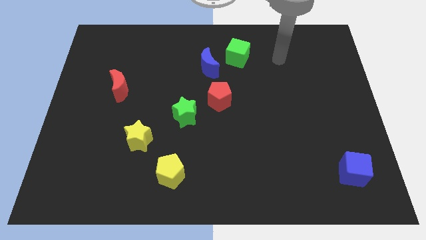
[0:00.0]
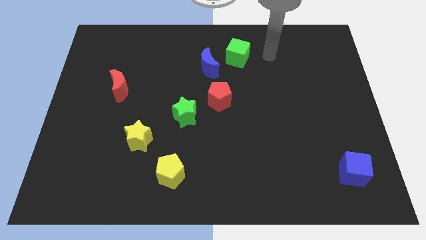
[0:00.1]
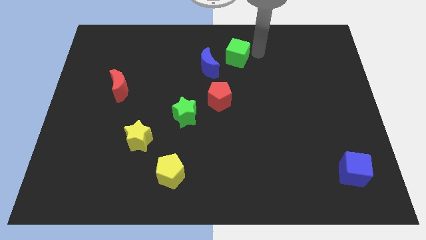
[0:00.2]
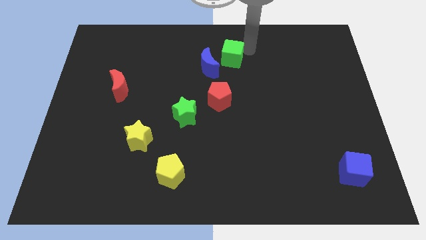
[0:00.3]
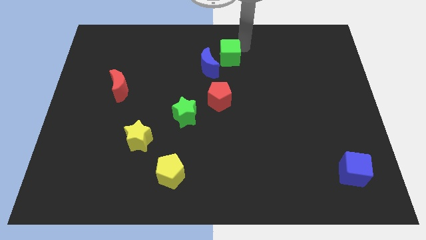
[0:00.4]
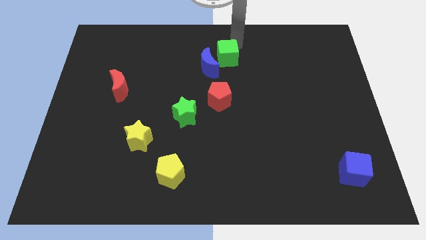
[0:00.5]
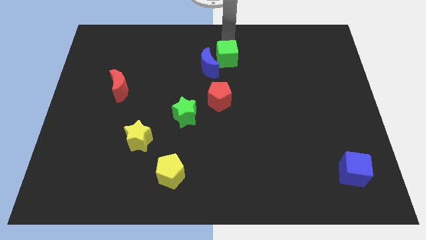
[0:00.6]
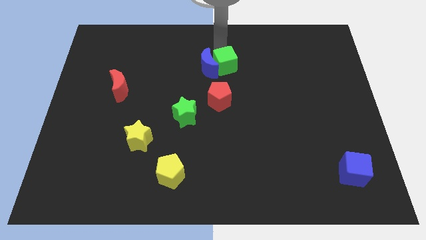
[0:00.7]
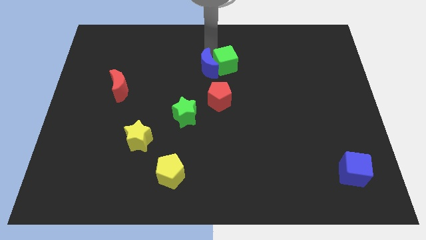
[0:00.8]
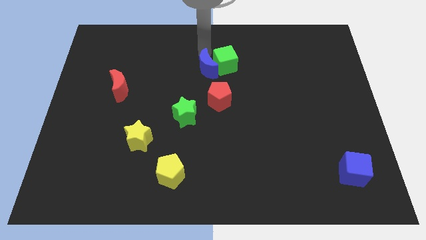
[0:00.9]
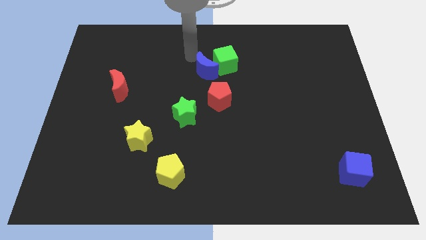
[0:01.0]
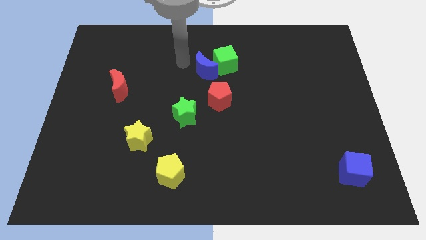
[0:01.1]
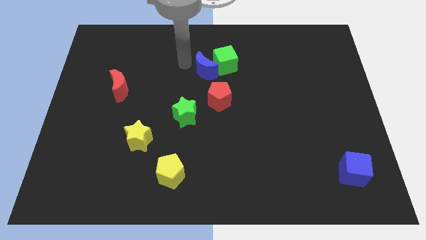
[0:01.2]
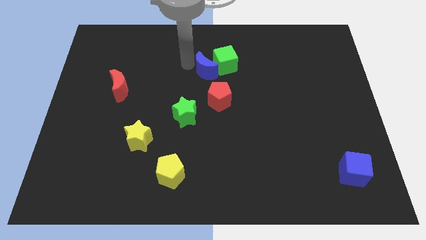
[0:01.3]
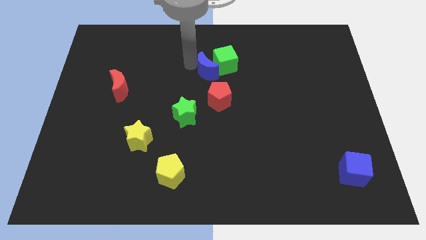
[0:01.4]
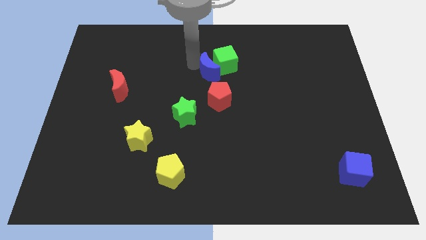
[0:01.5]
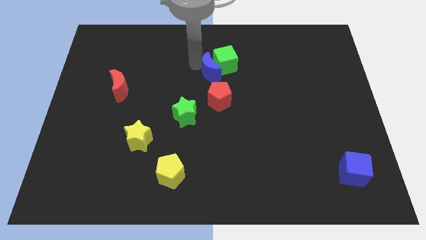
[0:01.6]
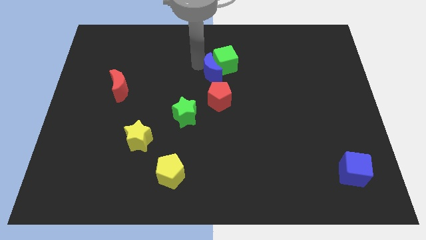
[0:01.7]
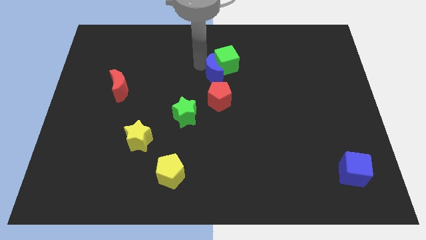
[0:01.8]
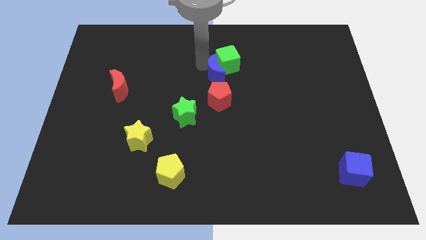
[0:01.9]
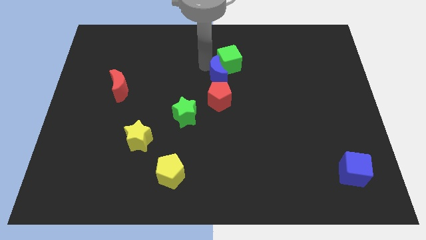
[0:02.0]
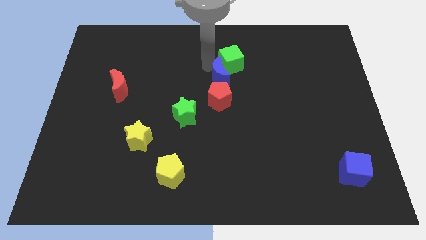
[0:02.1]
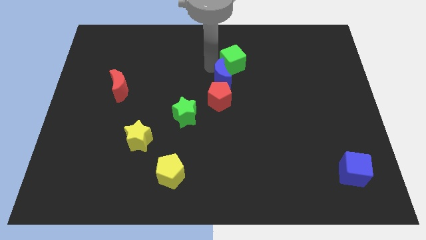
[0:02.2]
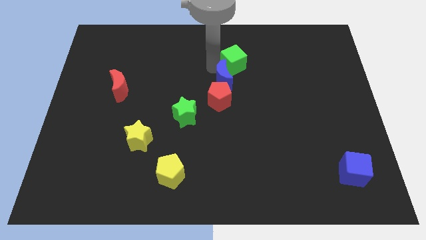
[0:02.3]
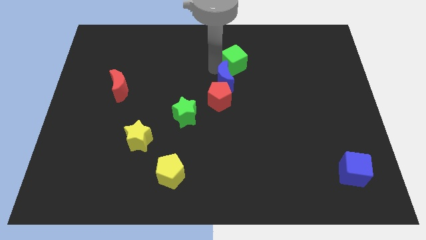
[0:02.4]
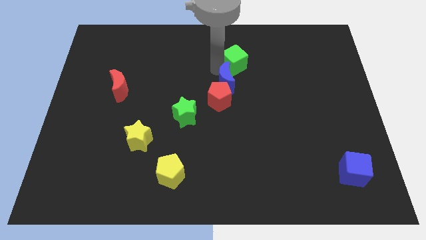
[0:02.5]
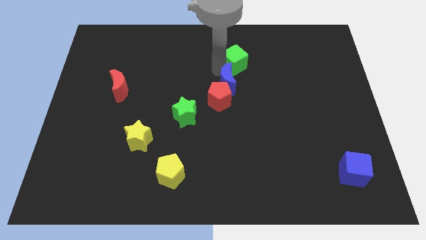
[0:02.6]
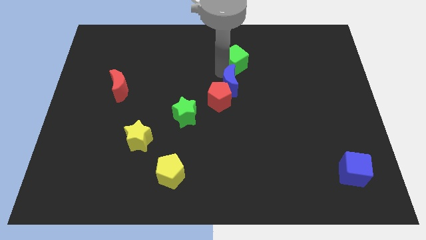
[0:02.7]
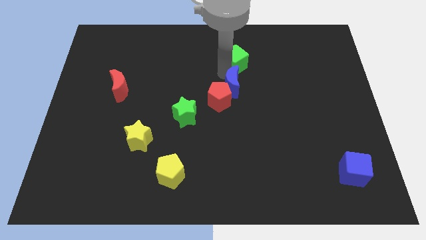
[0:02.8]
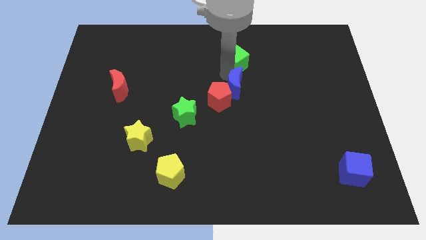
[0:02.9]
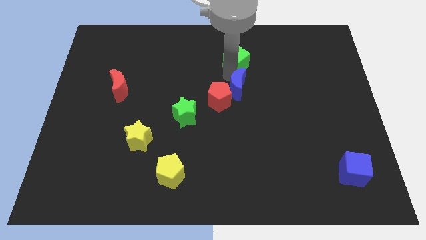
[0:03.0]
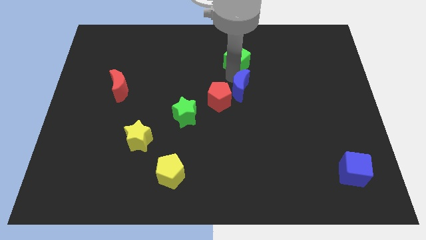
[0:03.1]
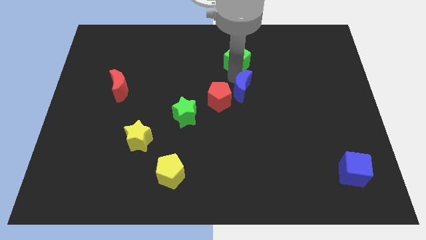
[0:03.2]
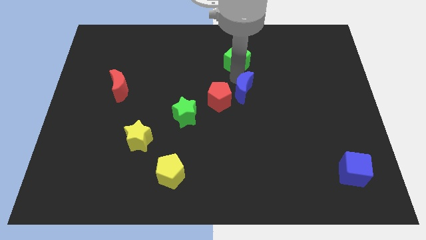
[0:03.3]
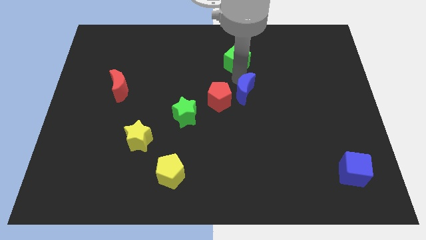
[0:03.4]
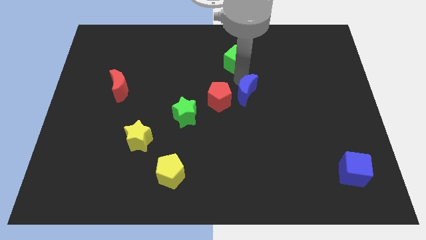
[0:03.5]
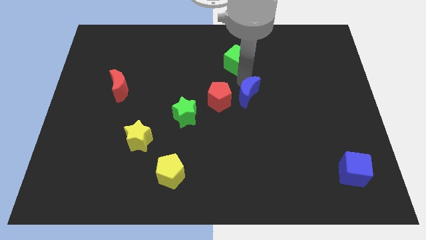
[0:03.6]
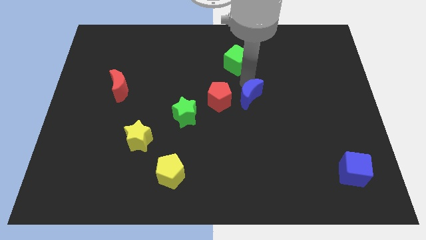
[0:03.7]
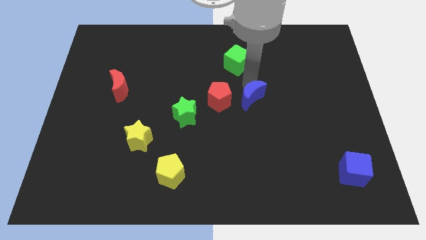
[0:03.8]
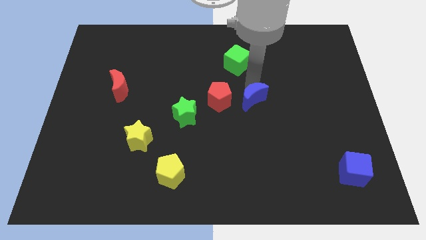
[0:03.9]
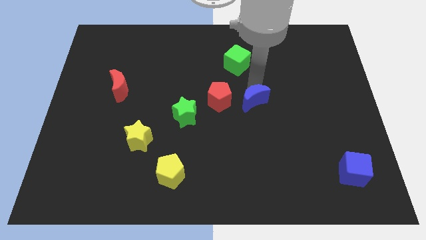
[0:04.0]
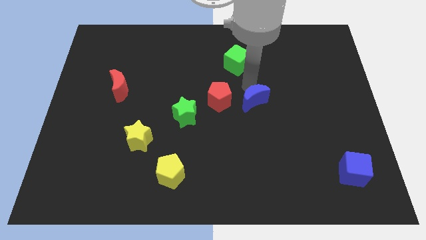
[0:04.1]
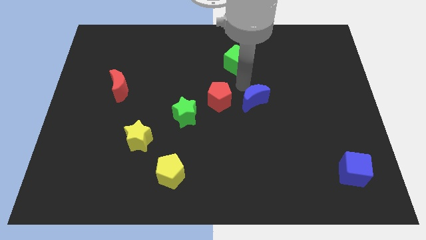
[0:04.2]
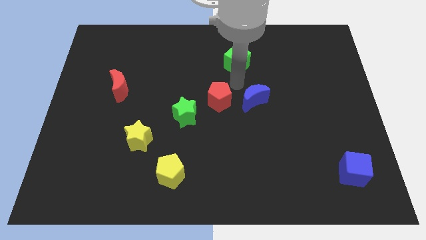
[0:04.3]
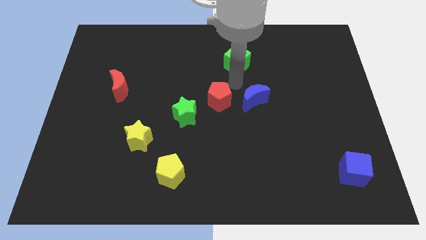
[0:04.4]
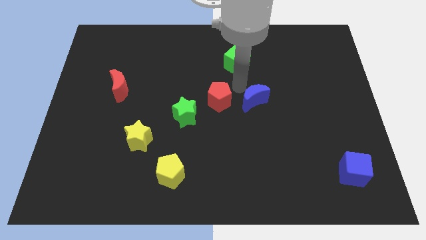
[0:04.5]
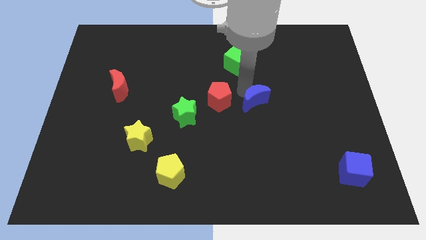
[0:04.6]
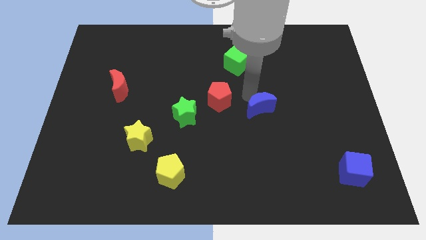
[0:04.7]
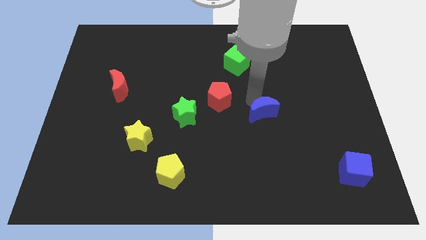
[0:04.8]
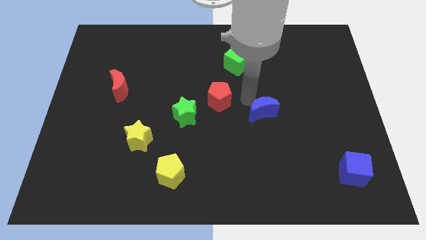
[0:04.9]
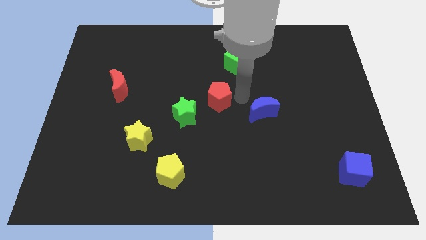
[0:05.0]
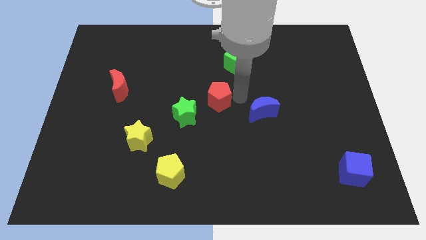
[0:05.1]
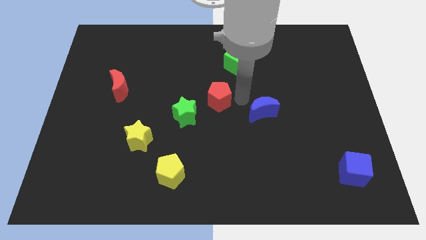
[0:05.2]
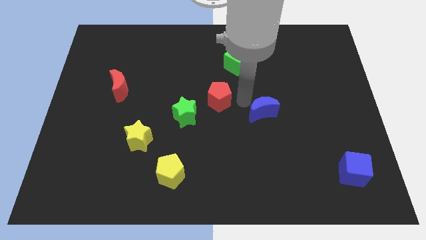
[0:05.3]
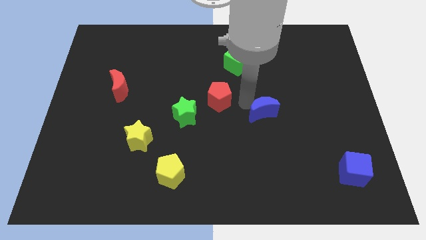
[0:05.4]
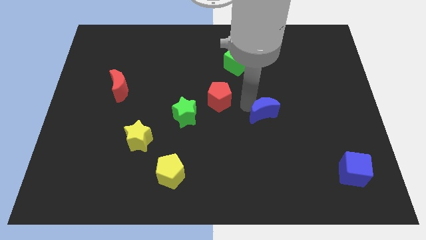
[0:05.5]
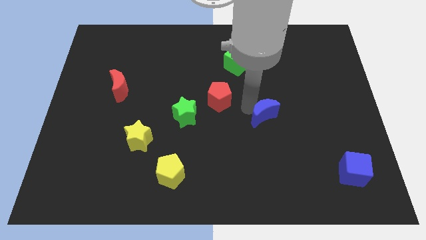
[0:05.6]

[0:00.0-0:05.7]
slide the blue moon downwards and then to the right

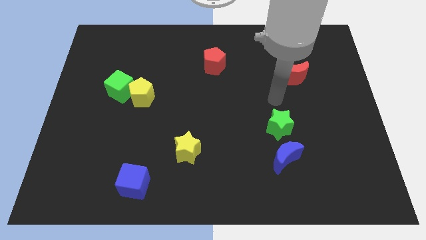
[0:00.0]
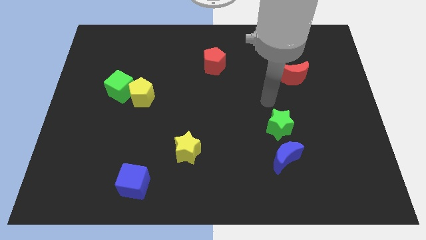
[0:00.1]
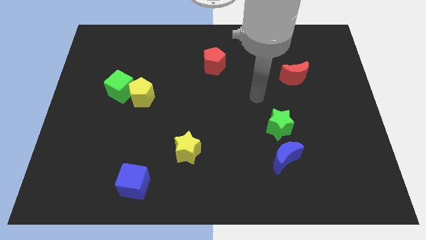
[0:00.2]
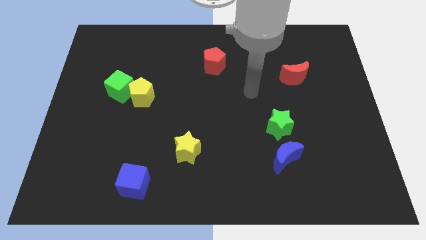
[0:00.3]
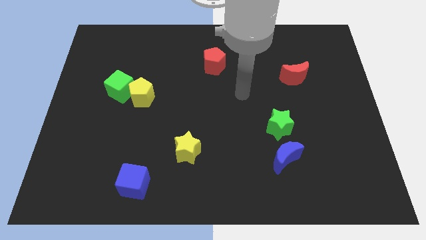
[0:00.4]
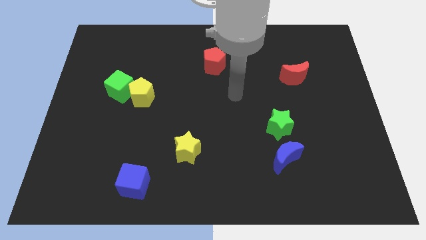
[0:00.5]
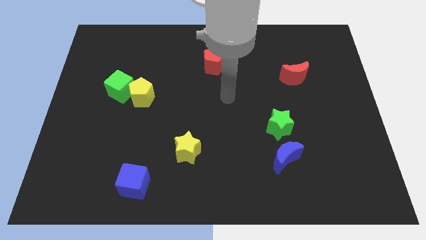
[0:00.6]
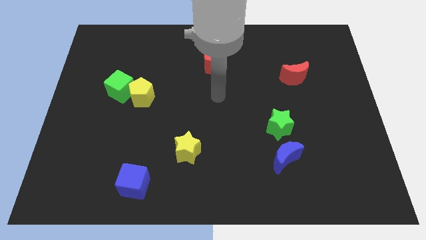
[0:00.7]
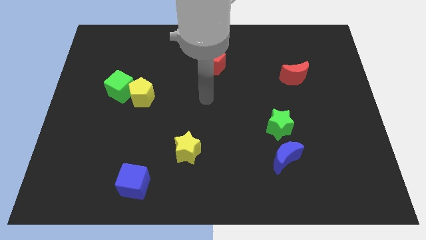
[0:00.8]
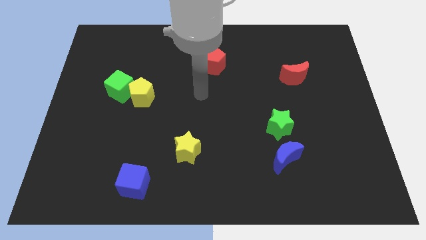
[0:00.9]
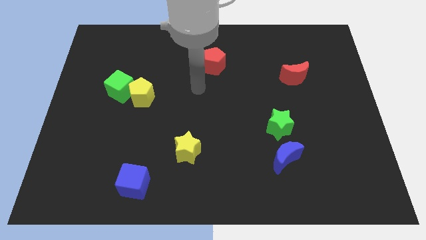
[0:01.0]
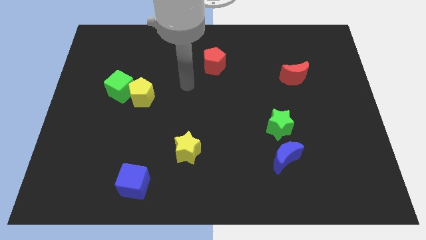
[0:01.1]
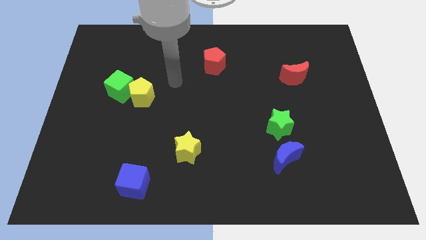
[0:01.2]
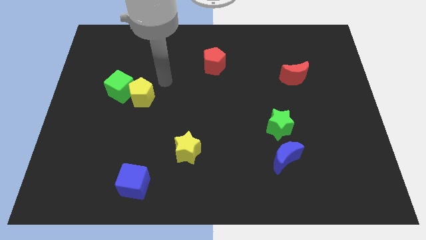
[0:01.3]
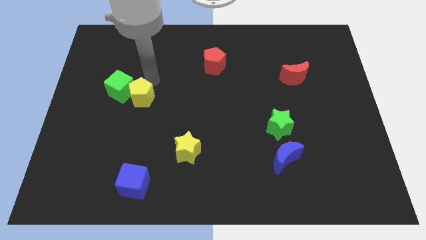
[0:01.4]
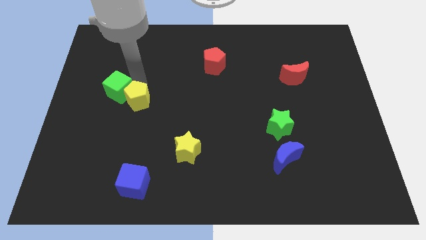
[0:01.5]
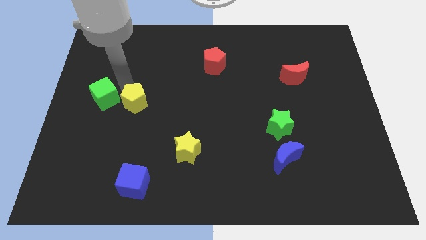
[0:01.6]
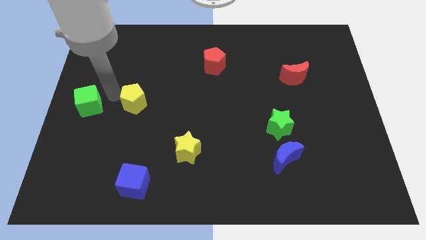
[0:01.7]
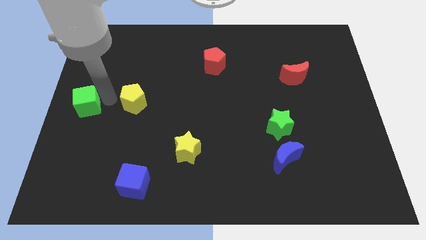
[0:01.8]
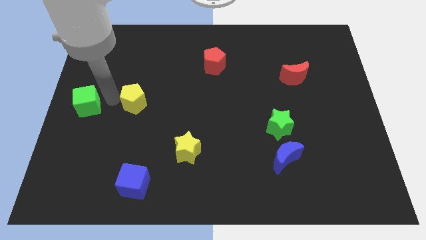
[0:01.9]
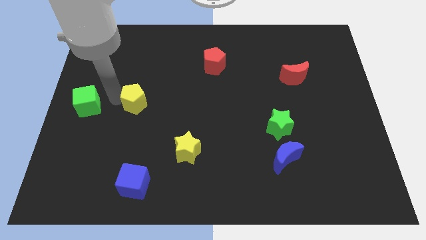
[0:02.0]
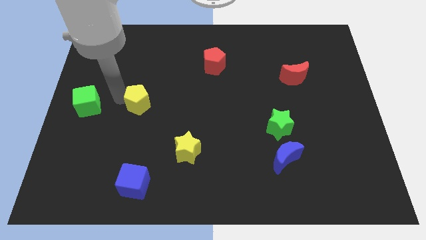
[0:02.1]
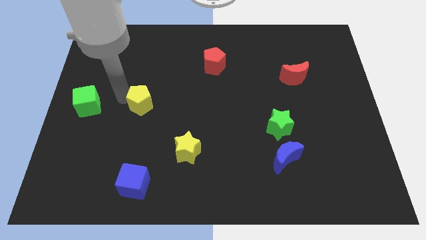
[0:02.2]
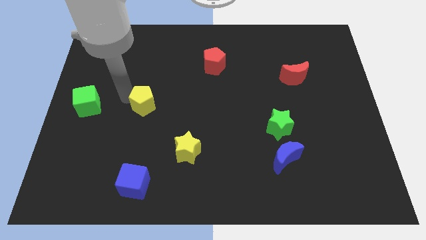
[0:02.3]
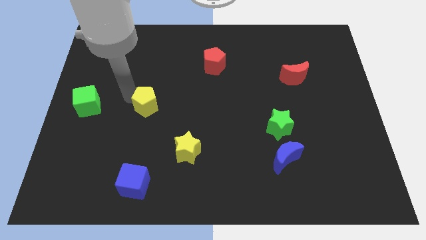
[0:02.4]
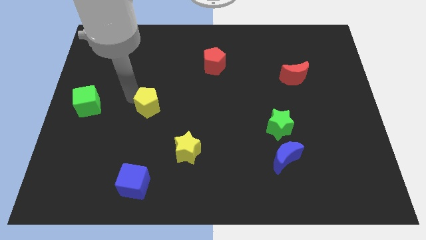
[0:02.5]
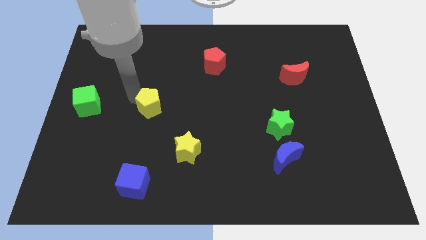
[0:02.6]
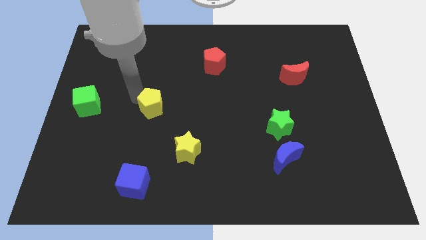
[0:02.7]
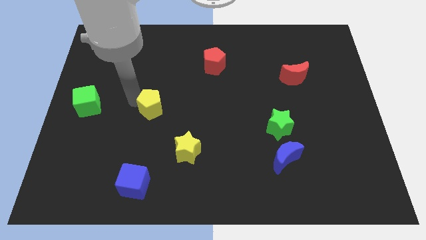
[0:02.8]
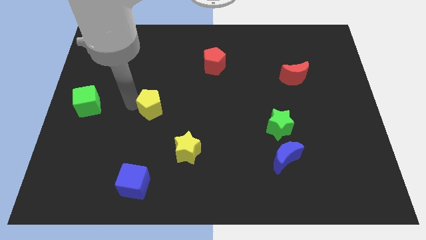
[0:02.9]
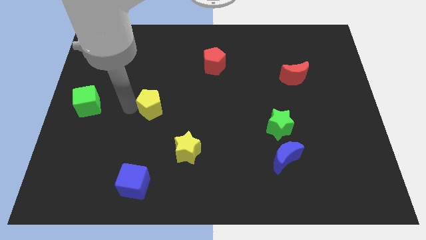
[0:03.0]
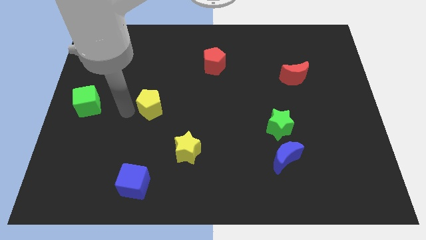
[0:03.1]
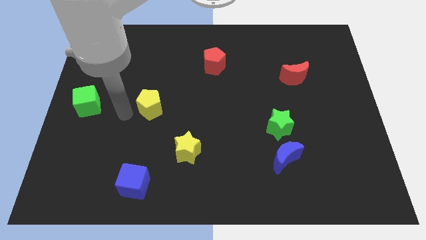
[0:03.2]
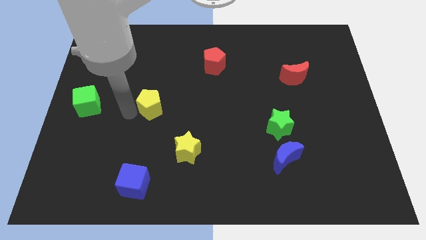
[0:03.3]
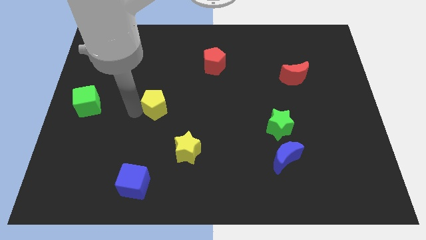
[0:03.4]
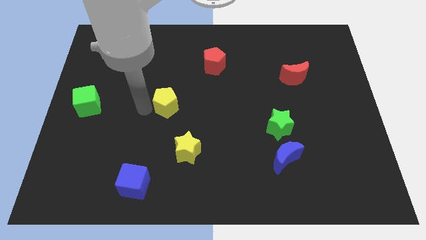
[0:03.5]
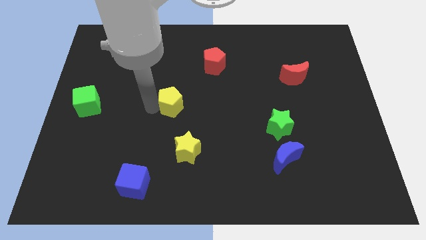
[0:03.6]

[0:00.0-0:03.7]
move the yellow pentagon right somewhat
